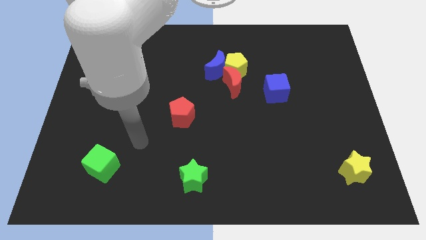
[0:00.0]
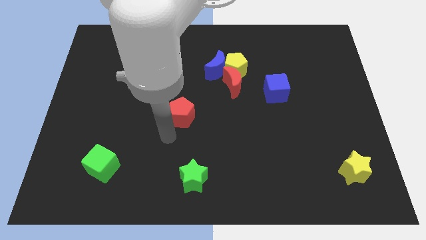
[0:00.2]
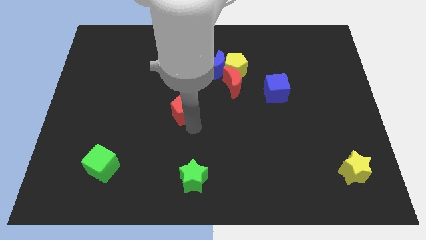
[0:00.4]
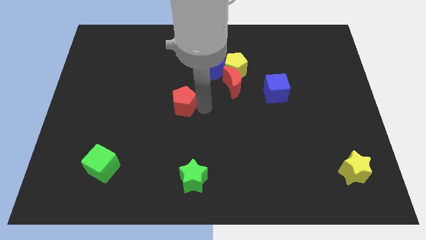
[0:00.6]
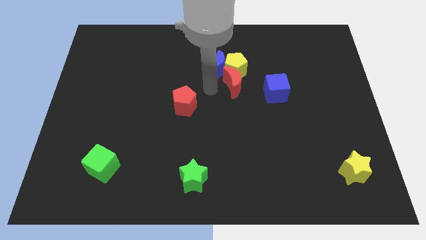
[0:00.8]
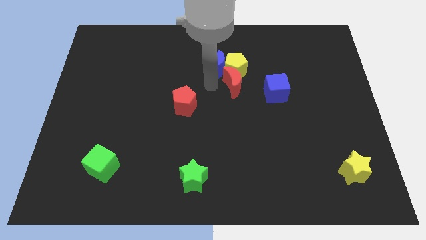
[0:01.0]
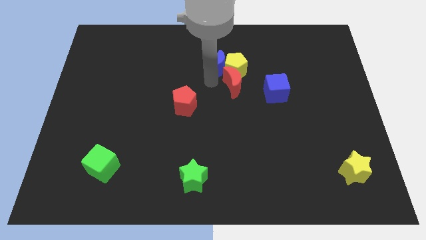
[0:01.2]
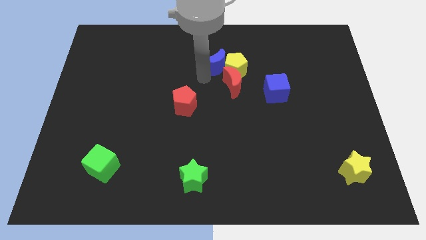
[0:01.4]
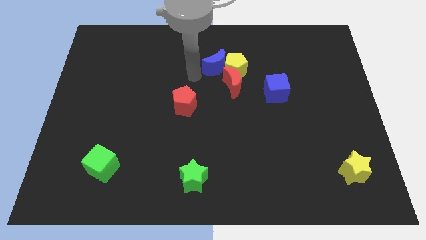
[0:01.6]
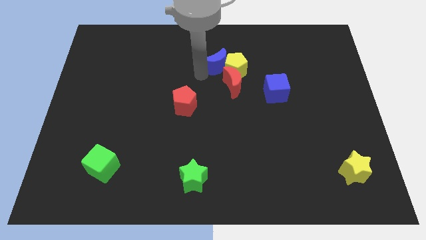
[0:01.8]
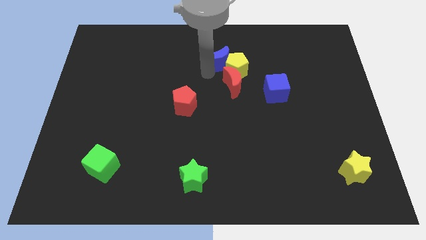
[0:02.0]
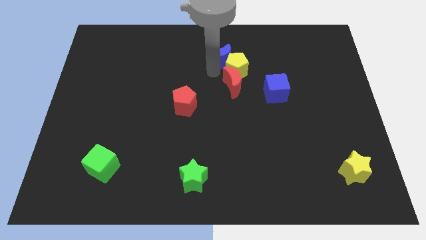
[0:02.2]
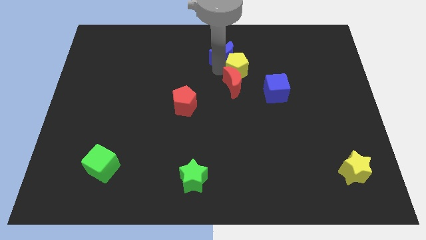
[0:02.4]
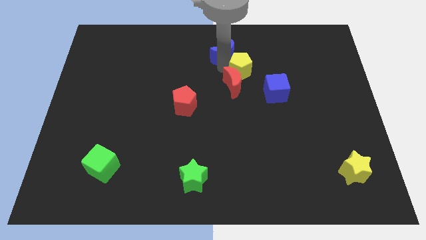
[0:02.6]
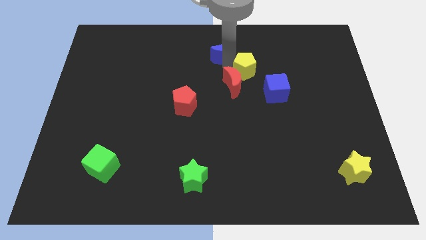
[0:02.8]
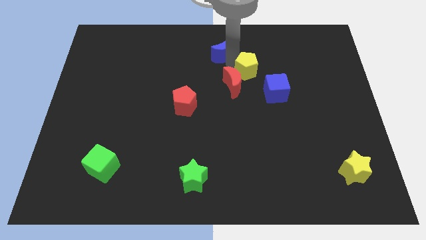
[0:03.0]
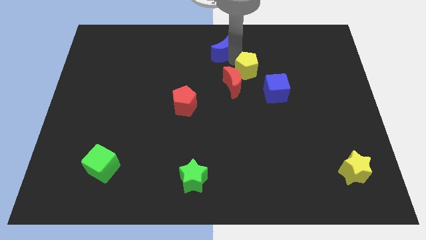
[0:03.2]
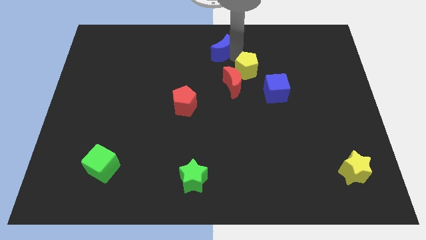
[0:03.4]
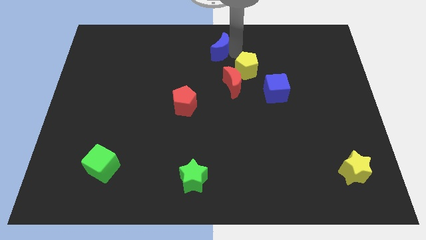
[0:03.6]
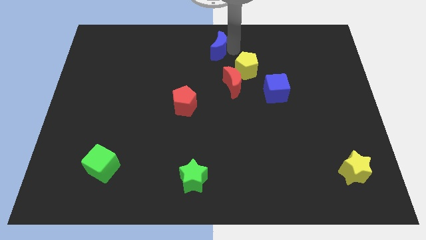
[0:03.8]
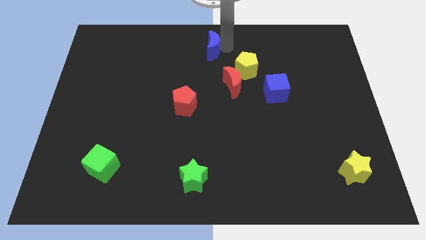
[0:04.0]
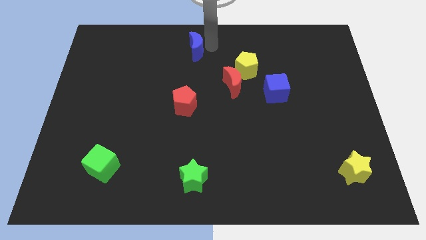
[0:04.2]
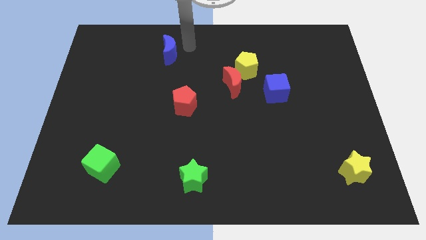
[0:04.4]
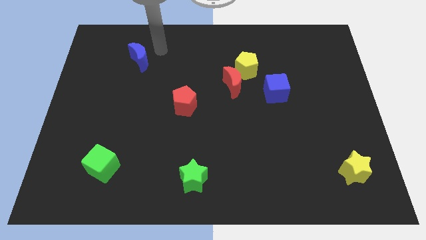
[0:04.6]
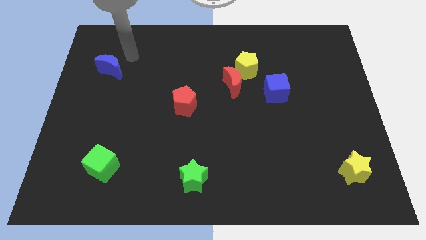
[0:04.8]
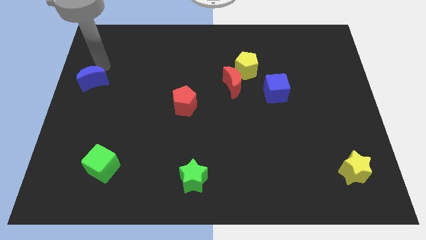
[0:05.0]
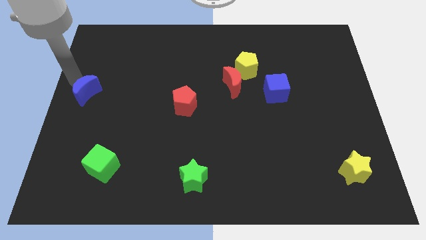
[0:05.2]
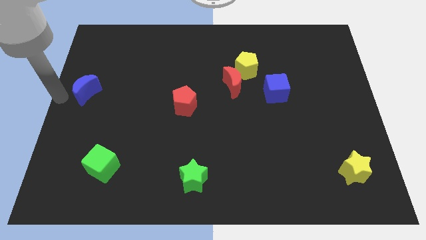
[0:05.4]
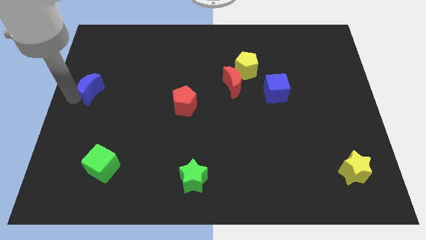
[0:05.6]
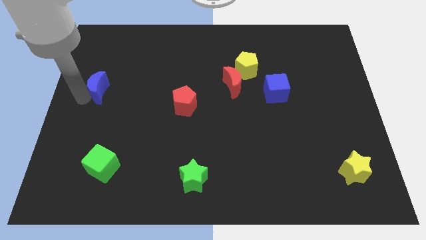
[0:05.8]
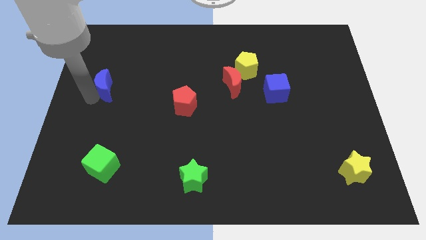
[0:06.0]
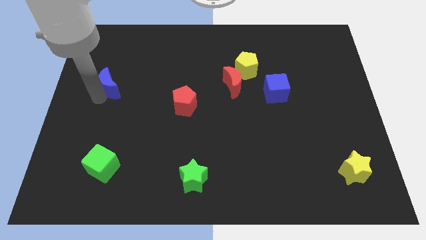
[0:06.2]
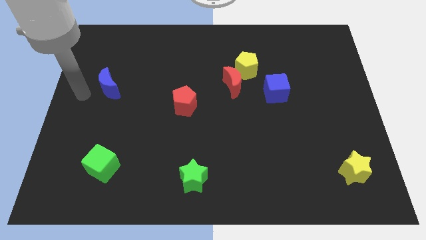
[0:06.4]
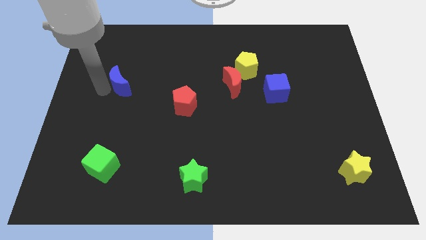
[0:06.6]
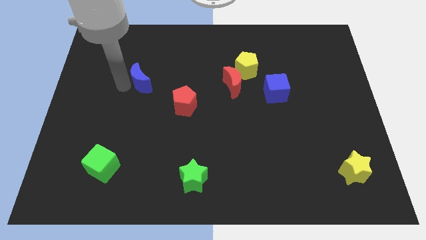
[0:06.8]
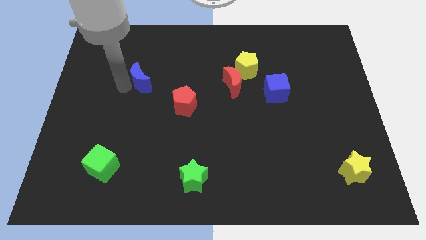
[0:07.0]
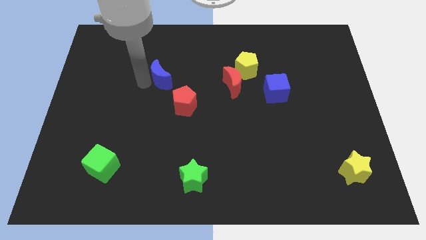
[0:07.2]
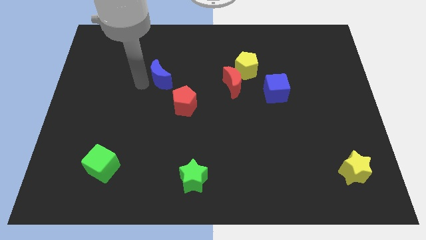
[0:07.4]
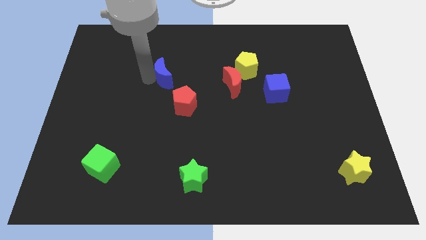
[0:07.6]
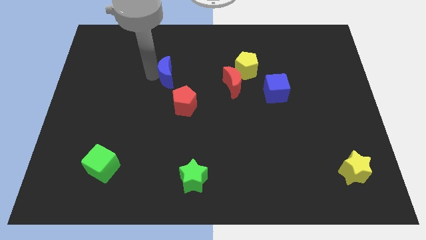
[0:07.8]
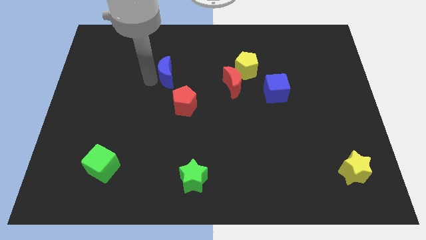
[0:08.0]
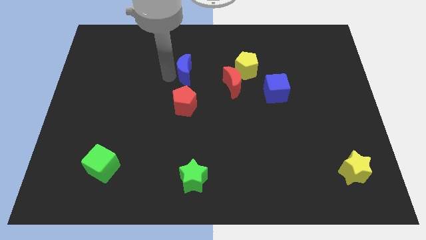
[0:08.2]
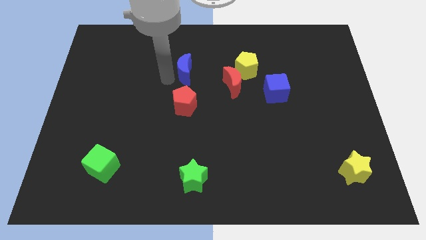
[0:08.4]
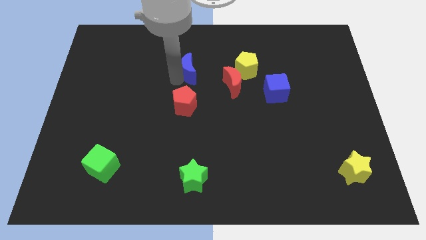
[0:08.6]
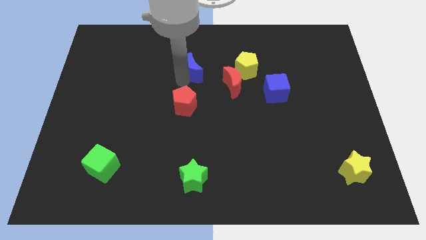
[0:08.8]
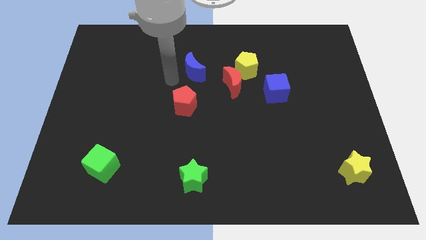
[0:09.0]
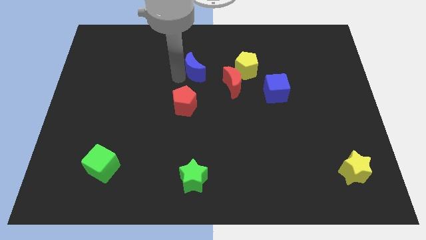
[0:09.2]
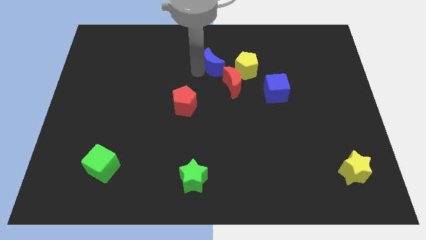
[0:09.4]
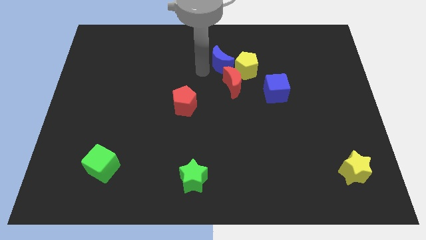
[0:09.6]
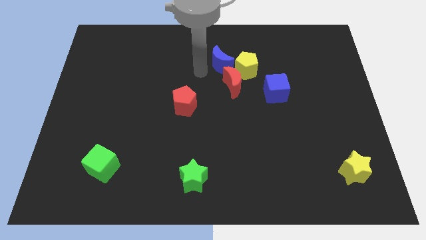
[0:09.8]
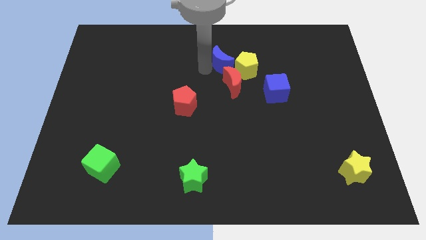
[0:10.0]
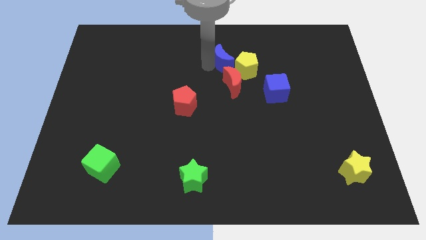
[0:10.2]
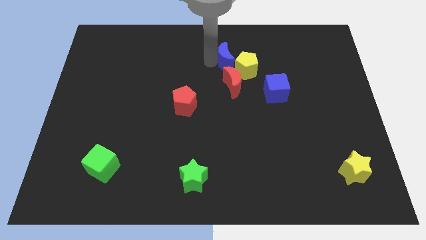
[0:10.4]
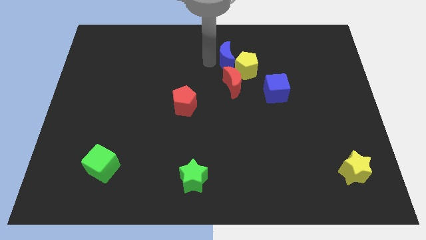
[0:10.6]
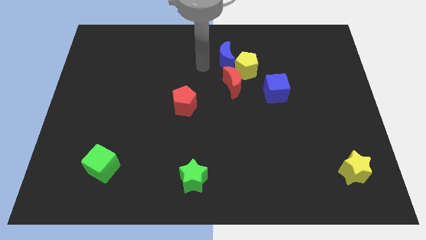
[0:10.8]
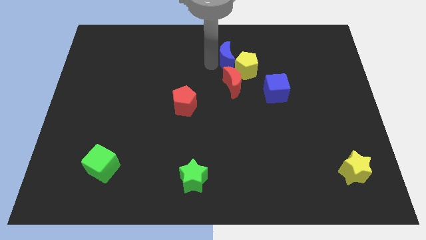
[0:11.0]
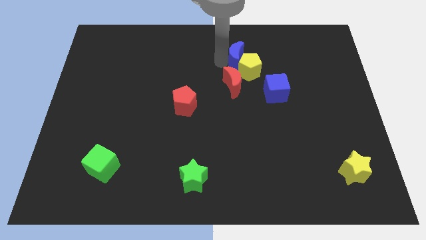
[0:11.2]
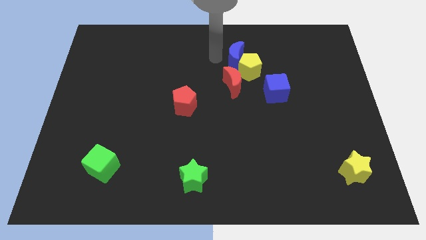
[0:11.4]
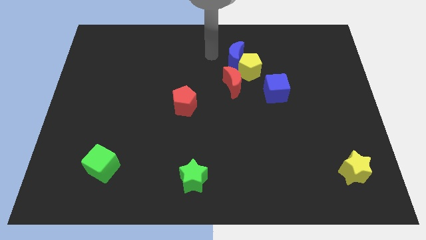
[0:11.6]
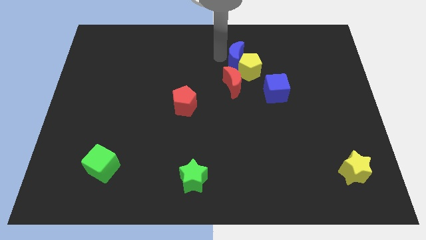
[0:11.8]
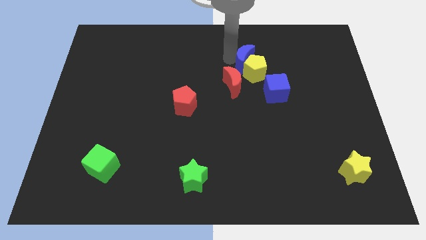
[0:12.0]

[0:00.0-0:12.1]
put the blue moon diagonally up and to the left of the blue cube

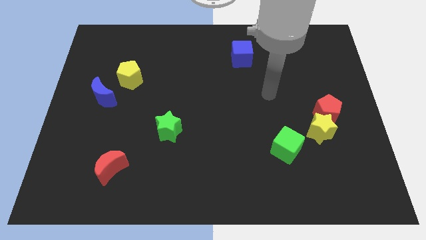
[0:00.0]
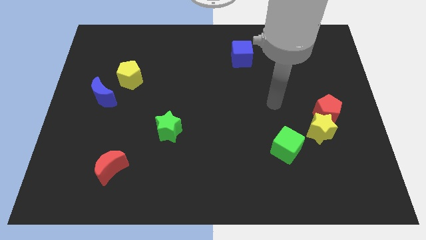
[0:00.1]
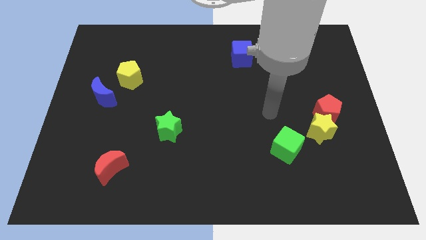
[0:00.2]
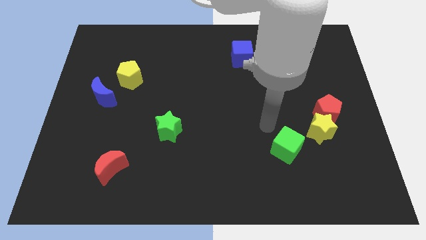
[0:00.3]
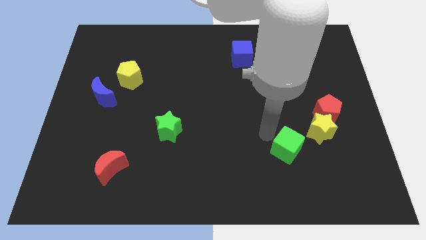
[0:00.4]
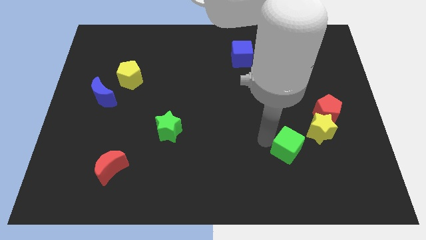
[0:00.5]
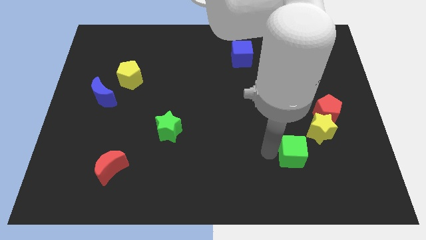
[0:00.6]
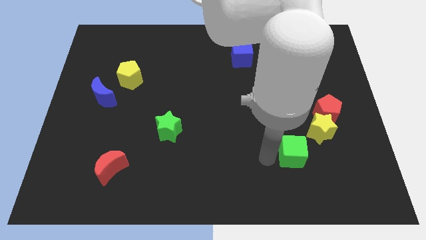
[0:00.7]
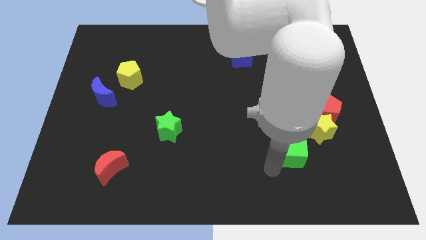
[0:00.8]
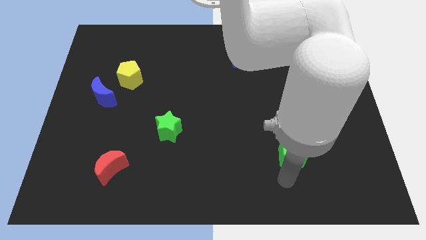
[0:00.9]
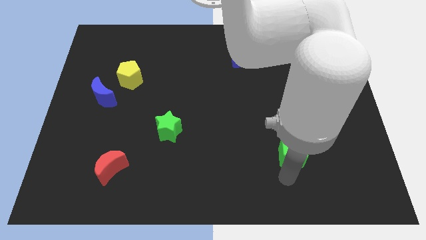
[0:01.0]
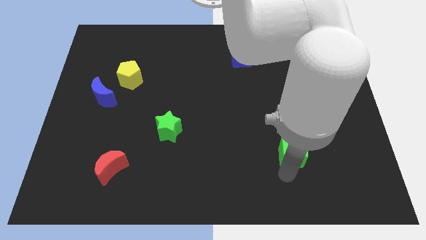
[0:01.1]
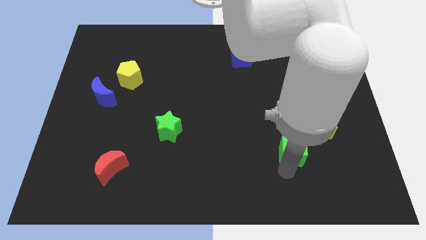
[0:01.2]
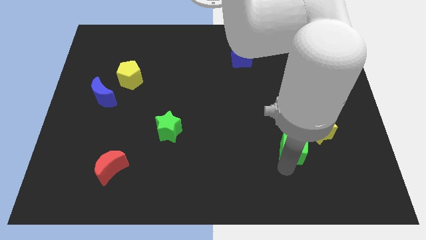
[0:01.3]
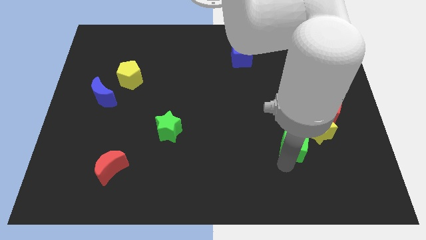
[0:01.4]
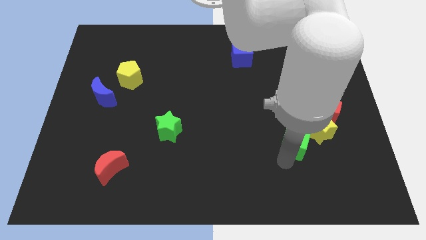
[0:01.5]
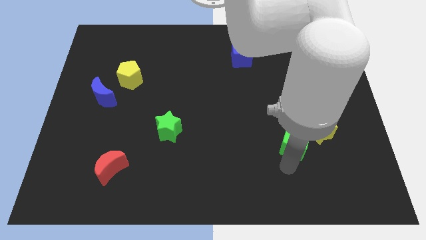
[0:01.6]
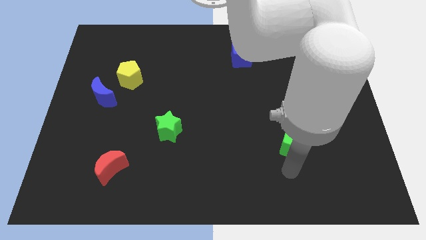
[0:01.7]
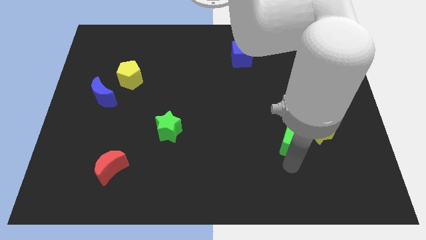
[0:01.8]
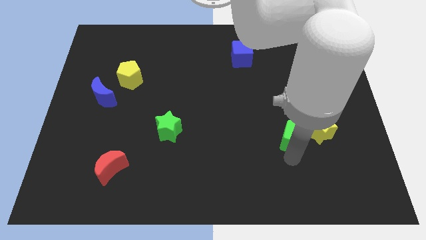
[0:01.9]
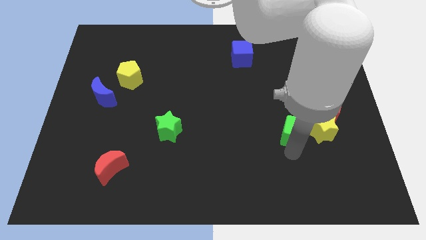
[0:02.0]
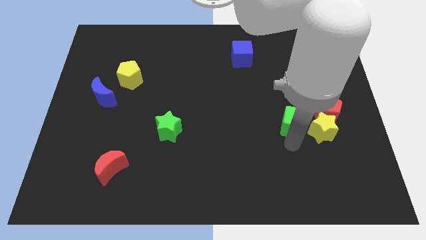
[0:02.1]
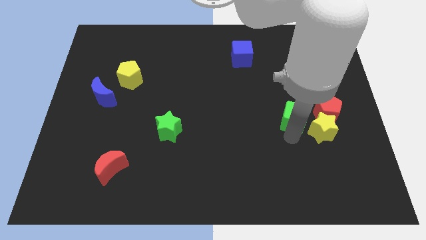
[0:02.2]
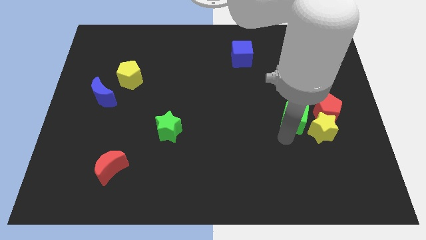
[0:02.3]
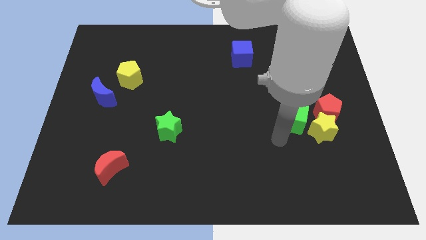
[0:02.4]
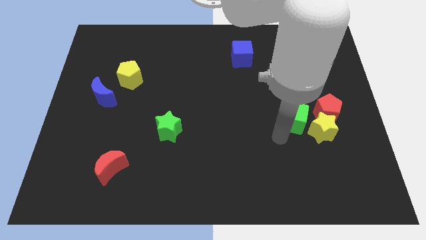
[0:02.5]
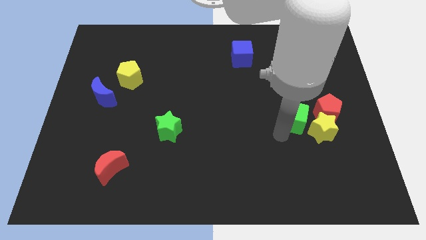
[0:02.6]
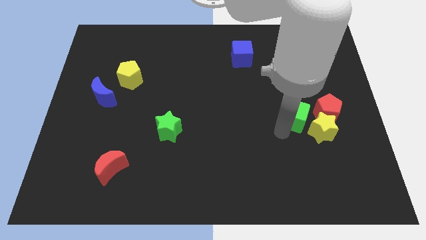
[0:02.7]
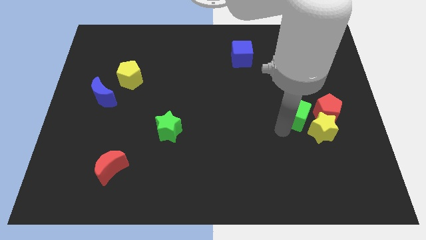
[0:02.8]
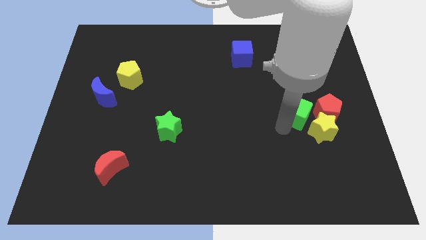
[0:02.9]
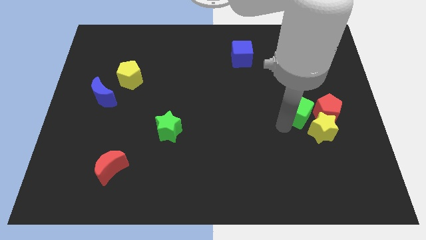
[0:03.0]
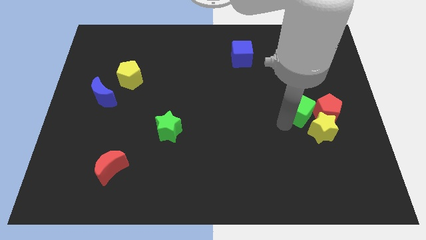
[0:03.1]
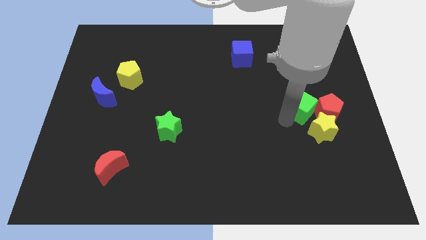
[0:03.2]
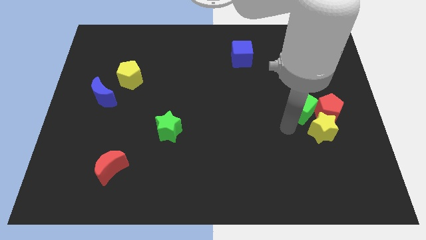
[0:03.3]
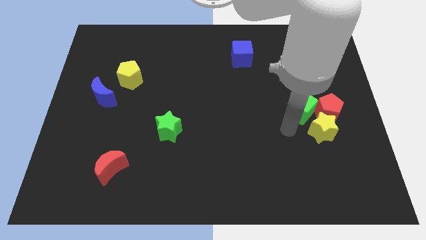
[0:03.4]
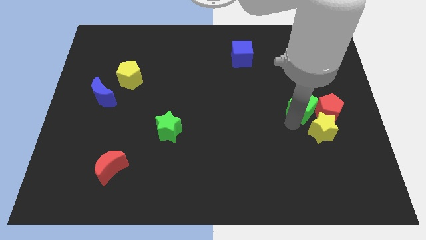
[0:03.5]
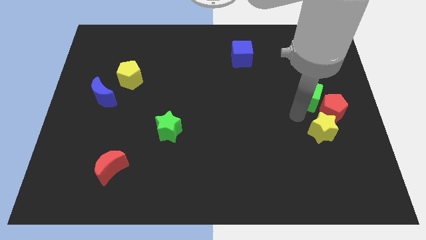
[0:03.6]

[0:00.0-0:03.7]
slide the green cube to the top side of the red pentagon
